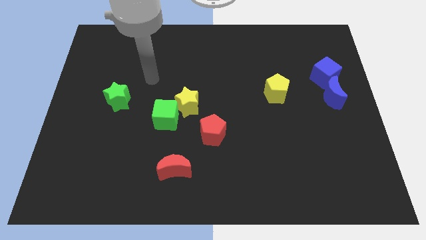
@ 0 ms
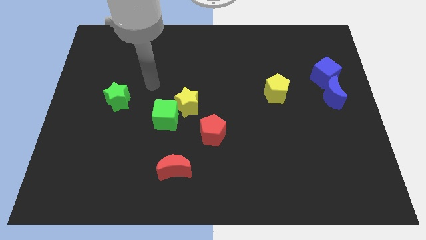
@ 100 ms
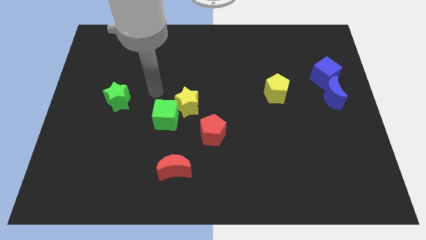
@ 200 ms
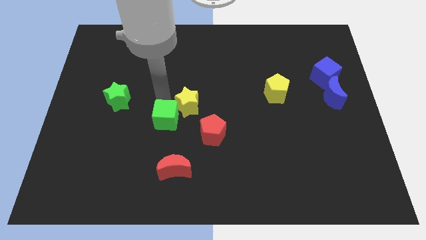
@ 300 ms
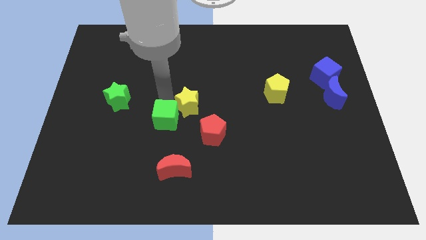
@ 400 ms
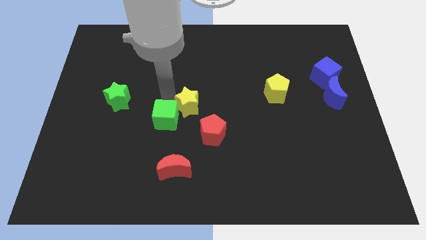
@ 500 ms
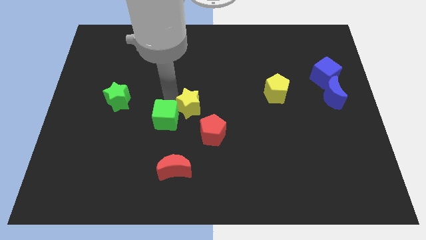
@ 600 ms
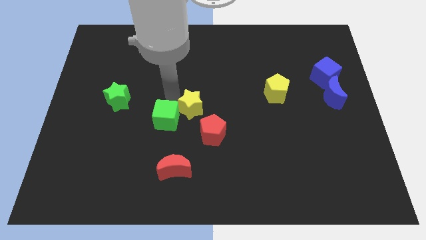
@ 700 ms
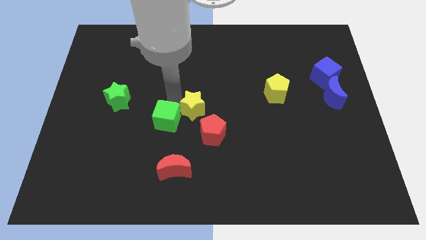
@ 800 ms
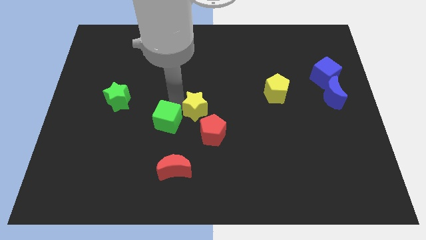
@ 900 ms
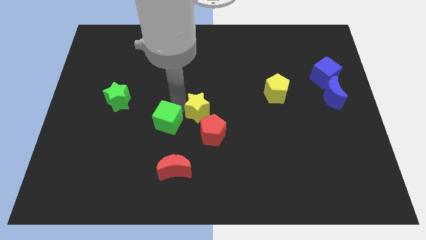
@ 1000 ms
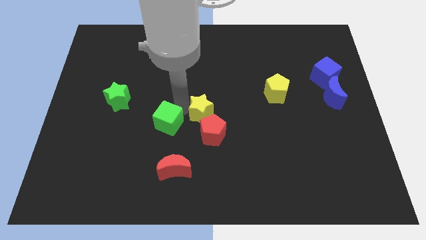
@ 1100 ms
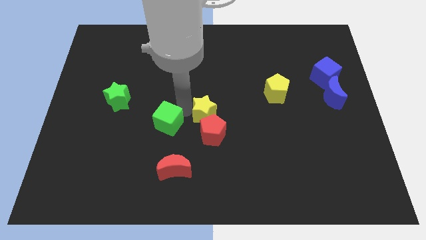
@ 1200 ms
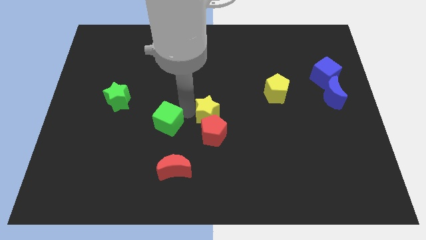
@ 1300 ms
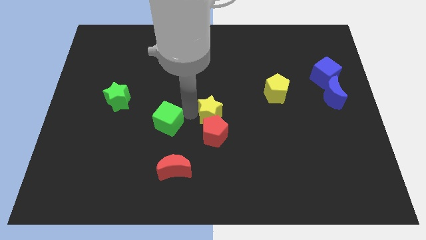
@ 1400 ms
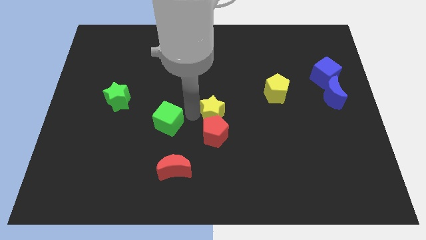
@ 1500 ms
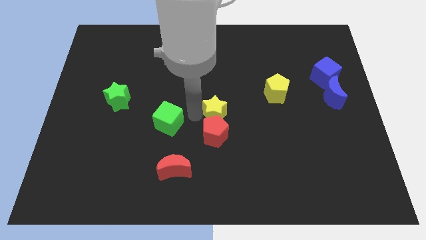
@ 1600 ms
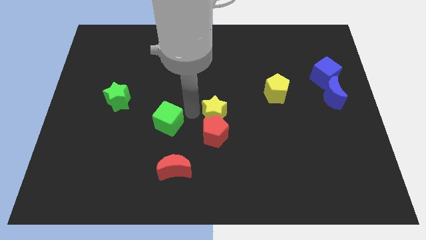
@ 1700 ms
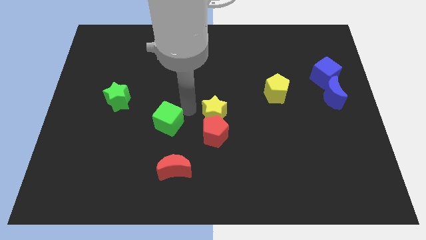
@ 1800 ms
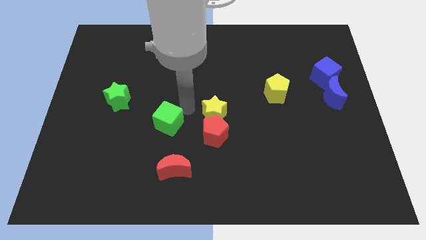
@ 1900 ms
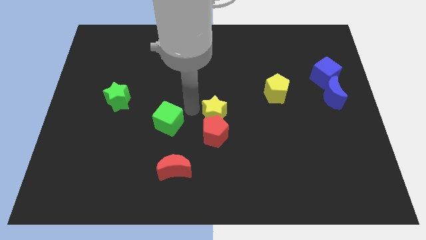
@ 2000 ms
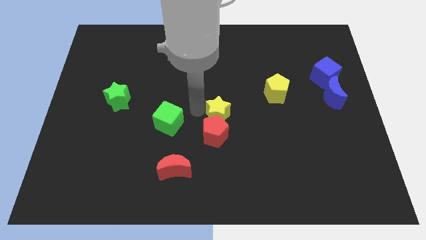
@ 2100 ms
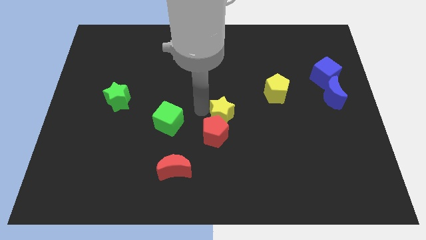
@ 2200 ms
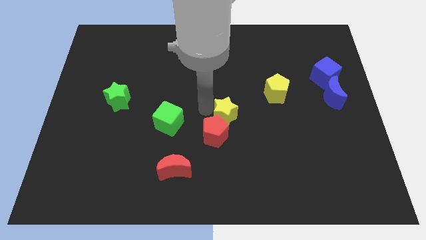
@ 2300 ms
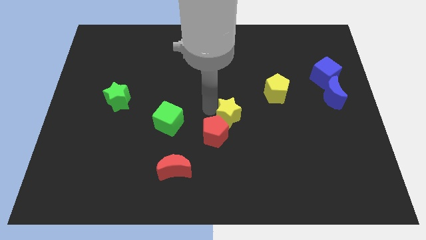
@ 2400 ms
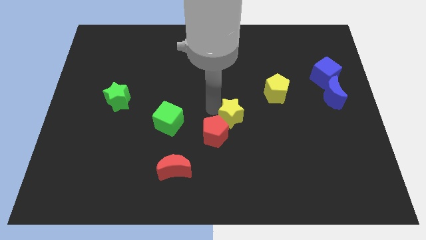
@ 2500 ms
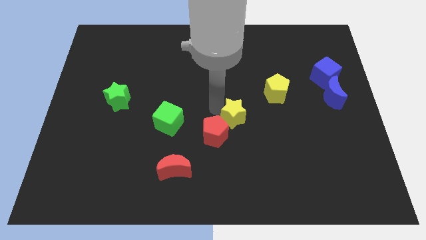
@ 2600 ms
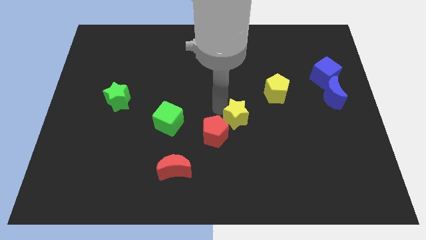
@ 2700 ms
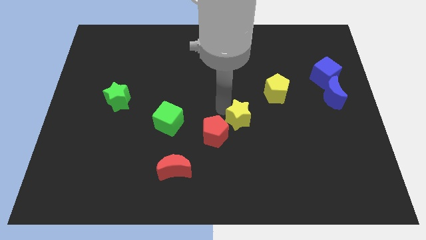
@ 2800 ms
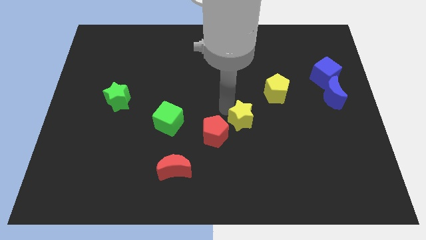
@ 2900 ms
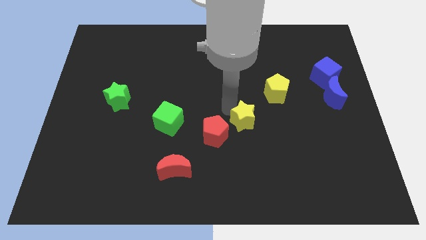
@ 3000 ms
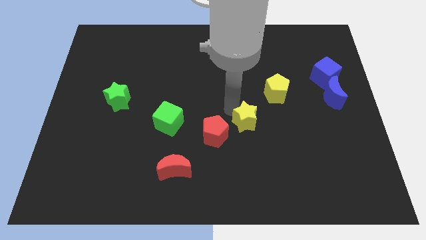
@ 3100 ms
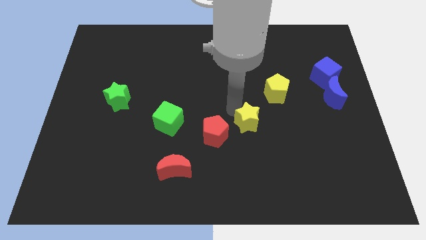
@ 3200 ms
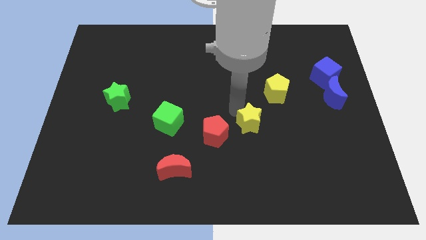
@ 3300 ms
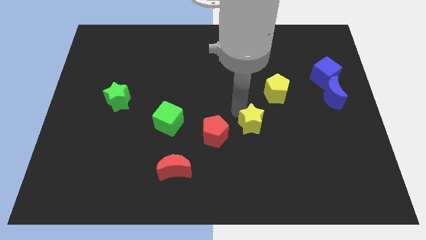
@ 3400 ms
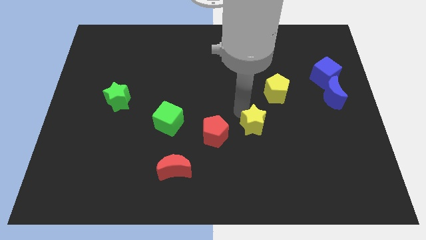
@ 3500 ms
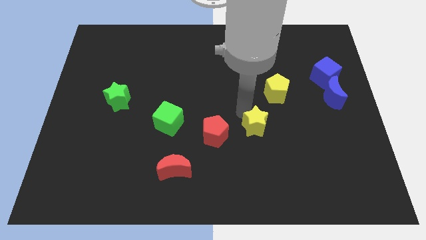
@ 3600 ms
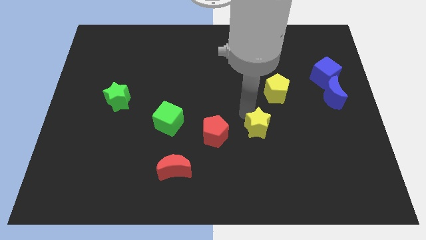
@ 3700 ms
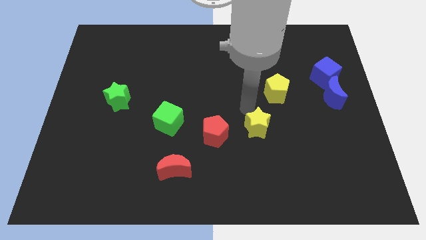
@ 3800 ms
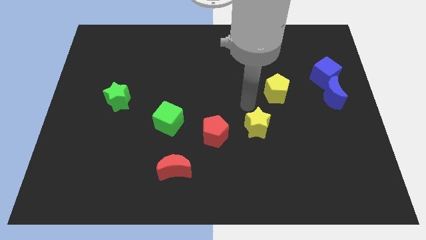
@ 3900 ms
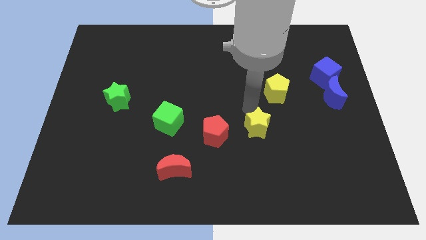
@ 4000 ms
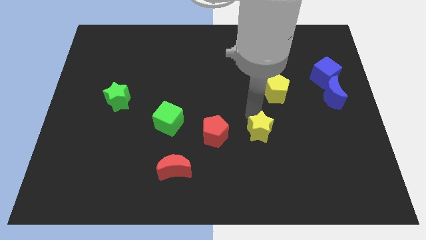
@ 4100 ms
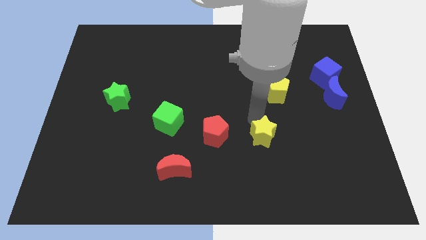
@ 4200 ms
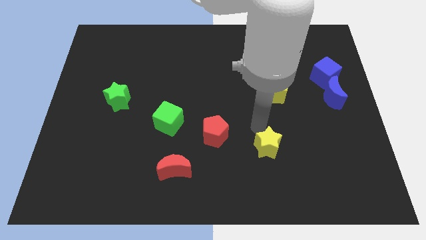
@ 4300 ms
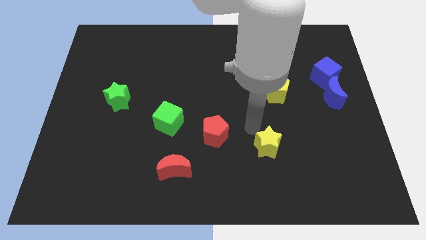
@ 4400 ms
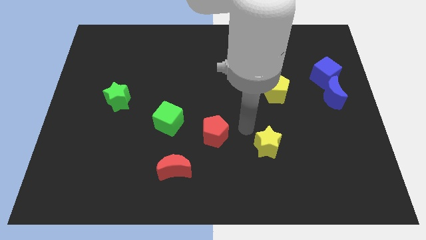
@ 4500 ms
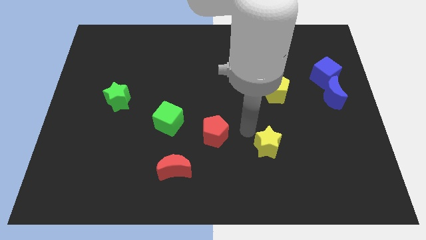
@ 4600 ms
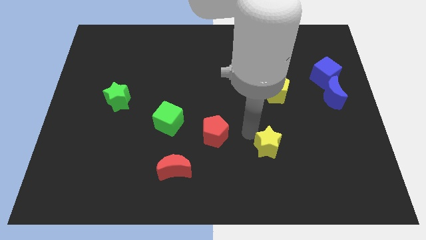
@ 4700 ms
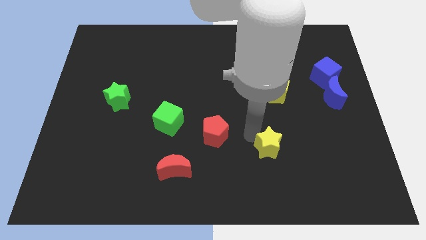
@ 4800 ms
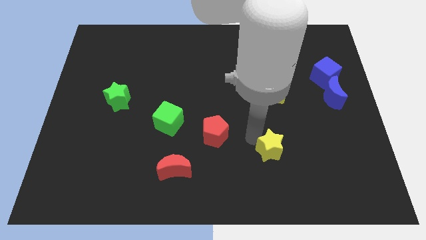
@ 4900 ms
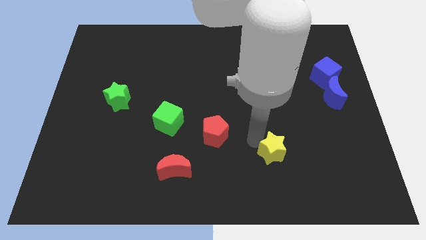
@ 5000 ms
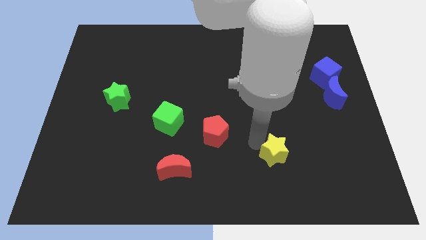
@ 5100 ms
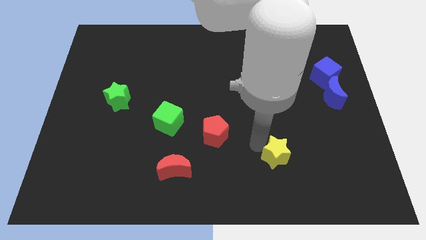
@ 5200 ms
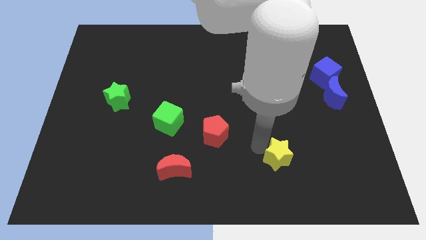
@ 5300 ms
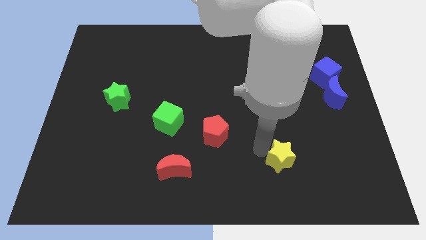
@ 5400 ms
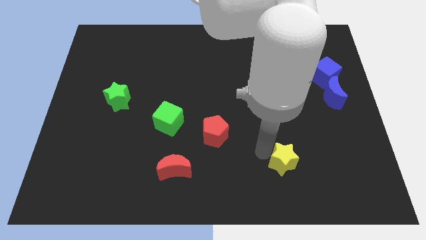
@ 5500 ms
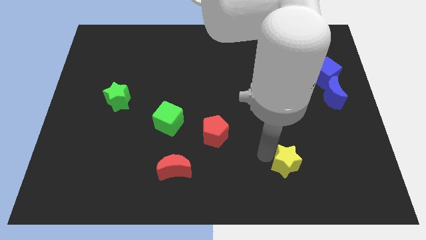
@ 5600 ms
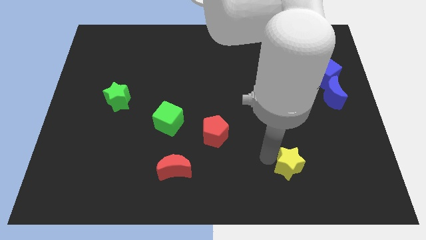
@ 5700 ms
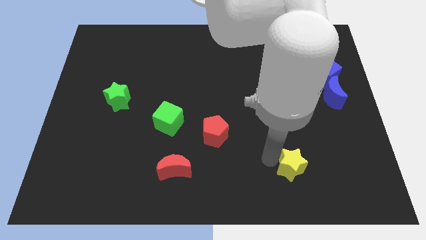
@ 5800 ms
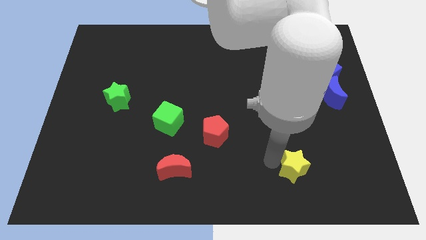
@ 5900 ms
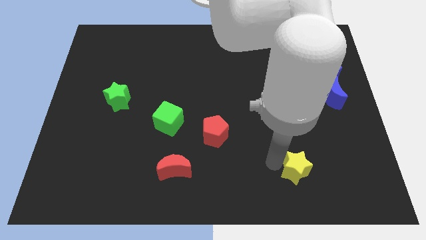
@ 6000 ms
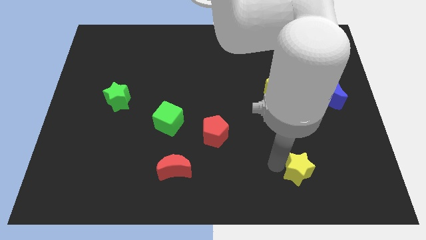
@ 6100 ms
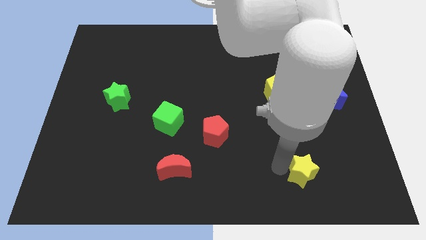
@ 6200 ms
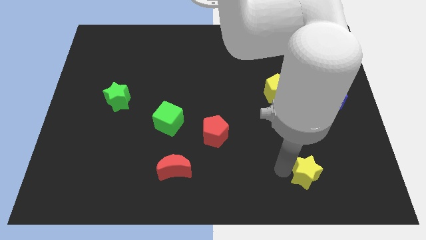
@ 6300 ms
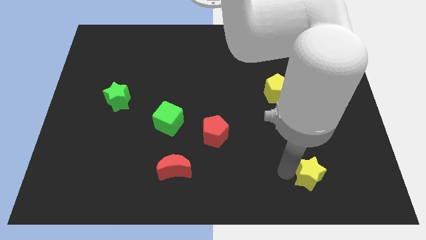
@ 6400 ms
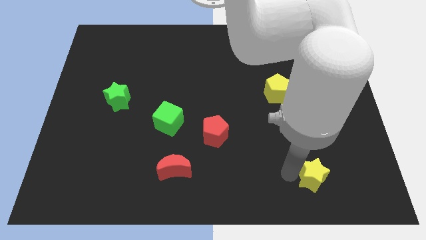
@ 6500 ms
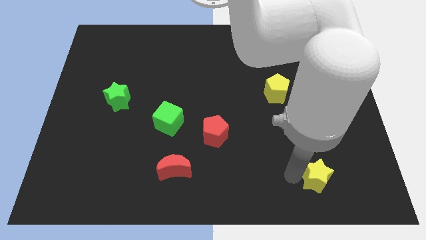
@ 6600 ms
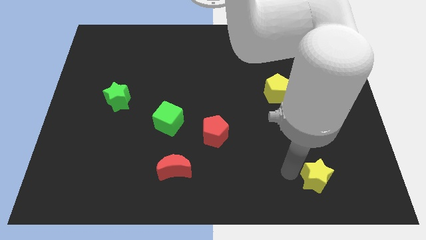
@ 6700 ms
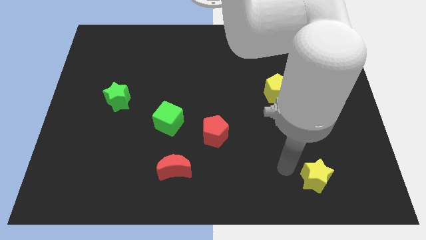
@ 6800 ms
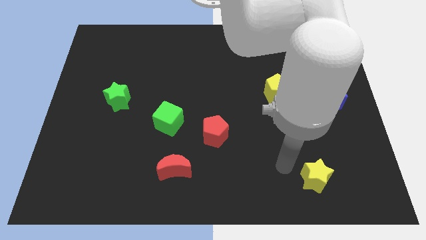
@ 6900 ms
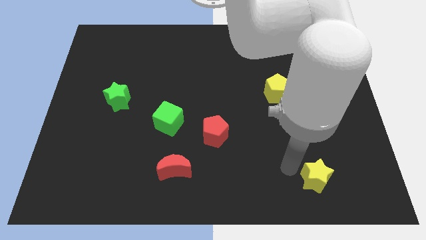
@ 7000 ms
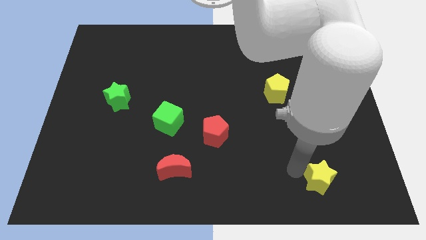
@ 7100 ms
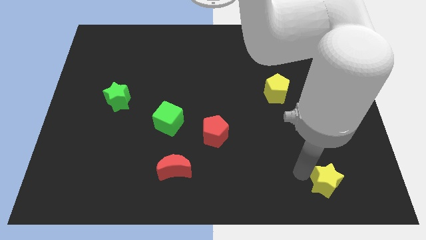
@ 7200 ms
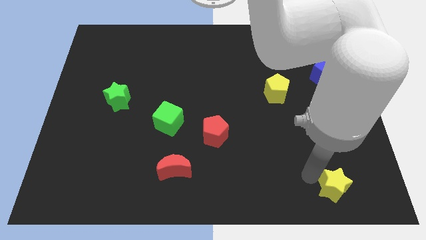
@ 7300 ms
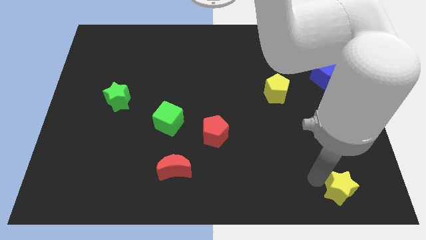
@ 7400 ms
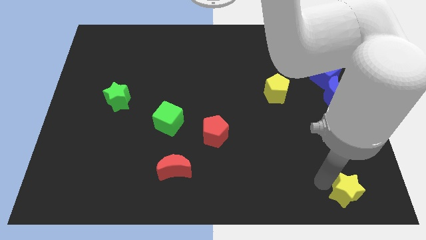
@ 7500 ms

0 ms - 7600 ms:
slide the yellow star to the lower right corner
